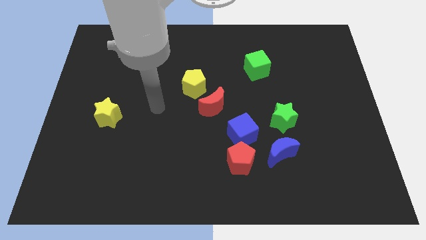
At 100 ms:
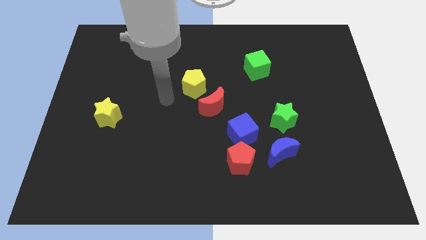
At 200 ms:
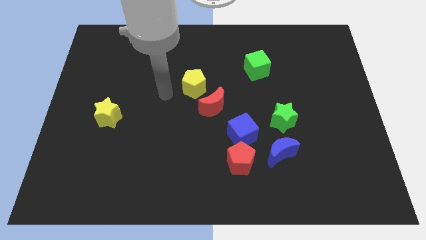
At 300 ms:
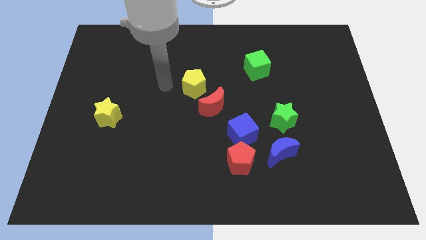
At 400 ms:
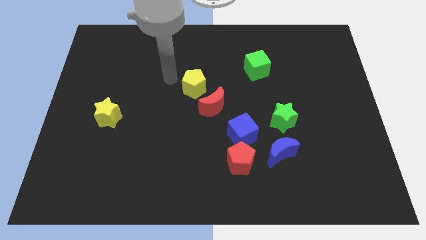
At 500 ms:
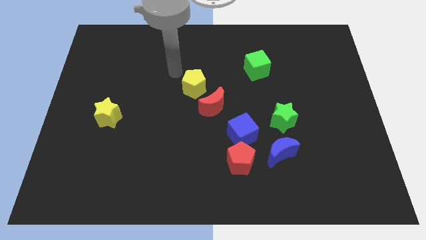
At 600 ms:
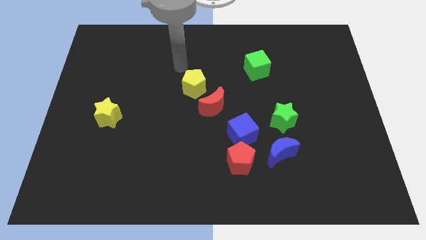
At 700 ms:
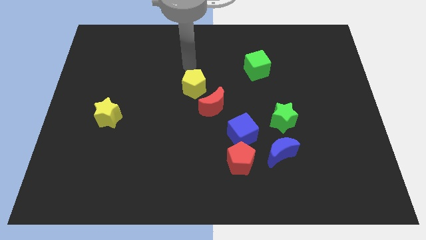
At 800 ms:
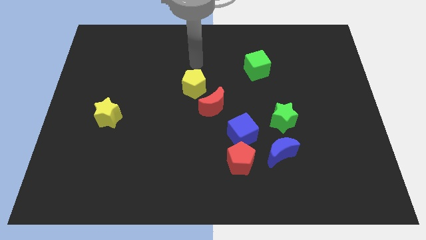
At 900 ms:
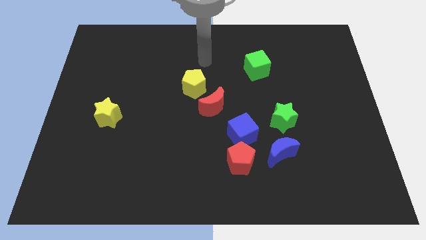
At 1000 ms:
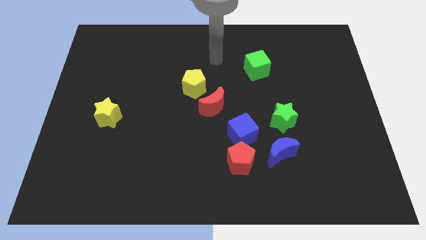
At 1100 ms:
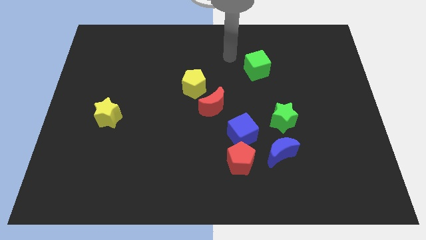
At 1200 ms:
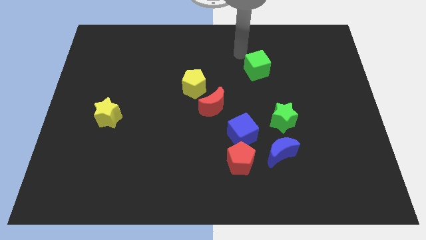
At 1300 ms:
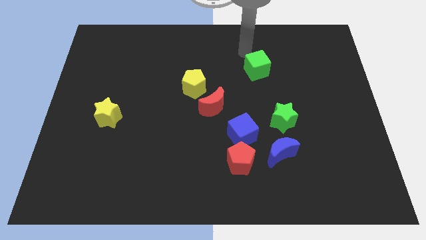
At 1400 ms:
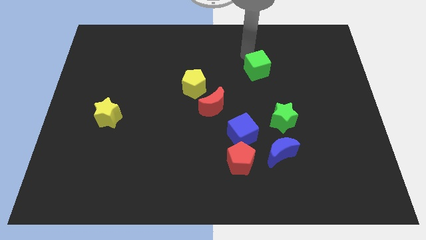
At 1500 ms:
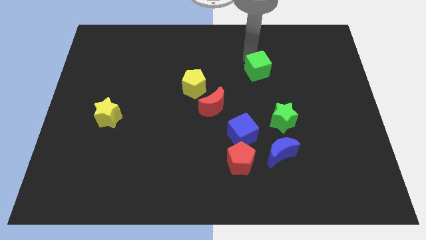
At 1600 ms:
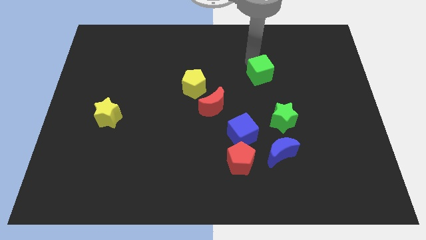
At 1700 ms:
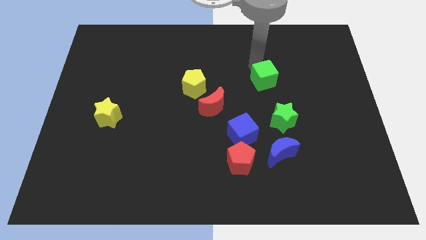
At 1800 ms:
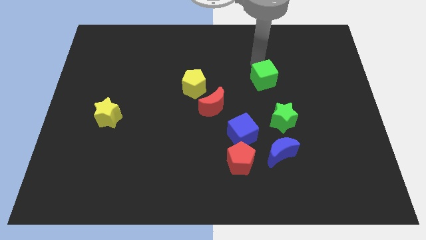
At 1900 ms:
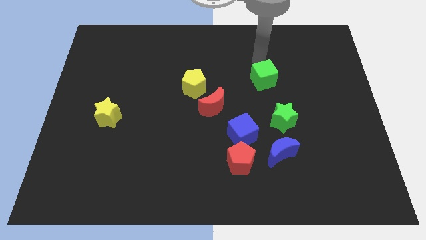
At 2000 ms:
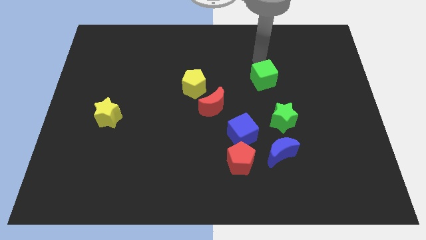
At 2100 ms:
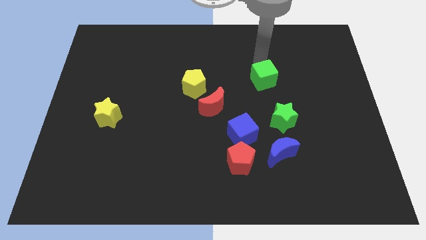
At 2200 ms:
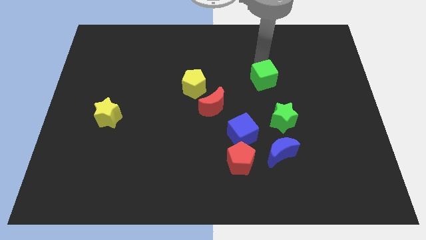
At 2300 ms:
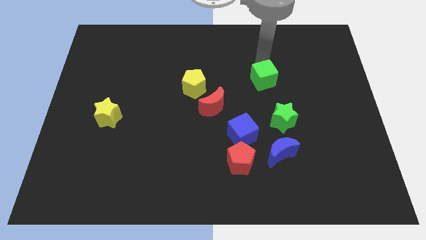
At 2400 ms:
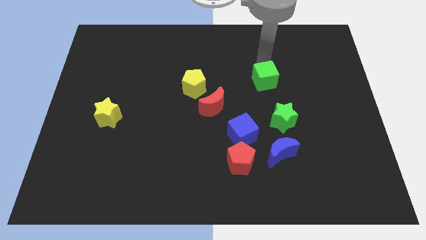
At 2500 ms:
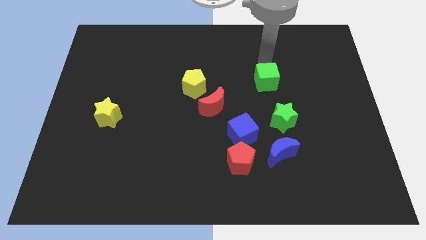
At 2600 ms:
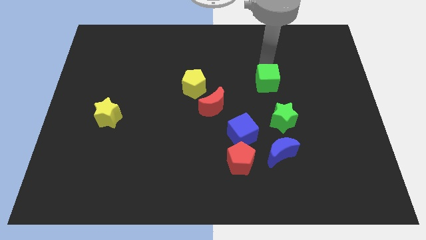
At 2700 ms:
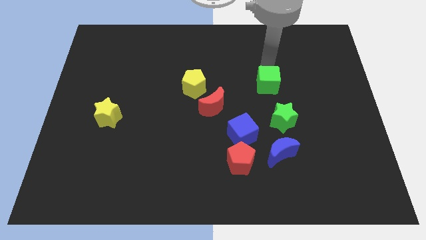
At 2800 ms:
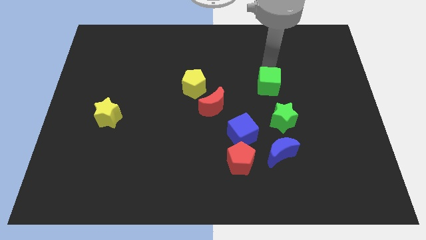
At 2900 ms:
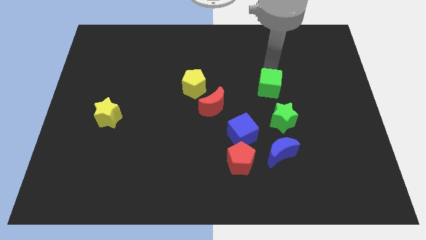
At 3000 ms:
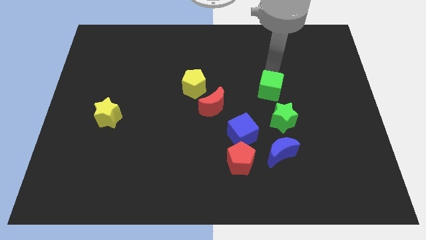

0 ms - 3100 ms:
move the green cube slightly down

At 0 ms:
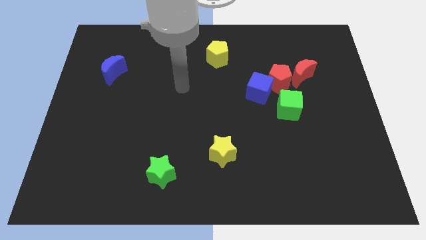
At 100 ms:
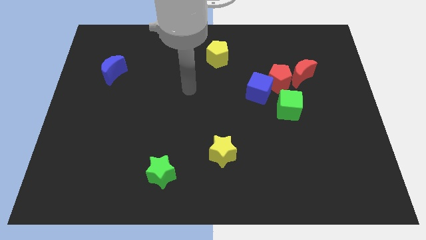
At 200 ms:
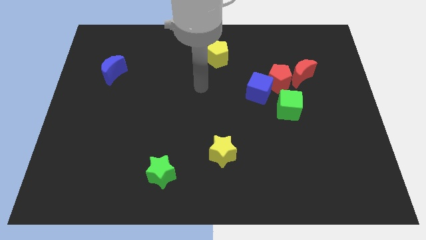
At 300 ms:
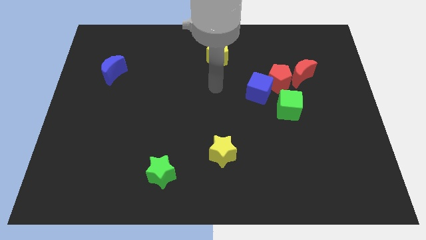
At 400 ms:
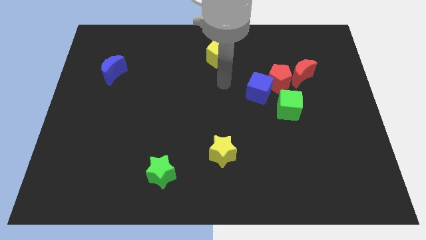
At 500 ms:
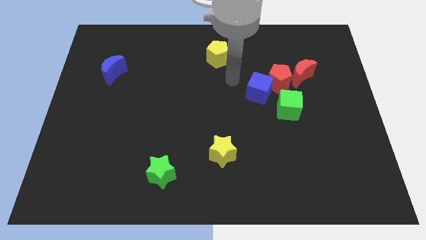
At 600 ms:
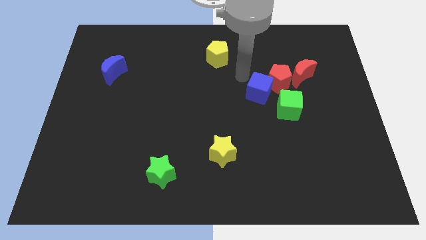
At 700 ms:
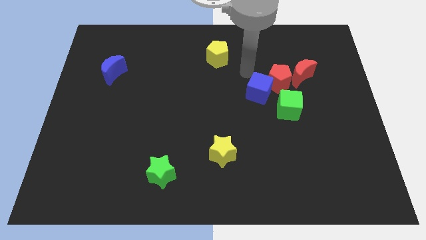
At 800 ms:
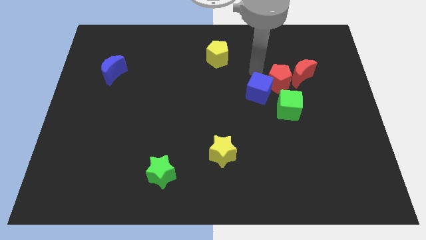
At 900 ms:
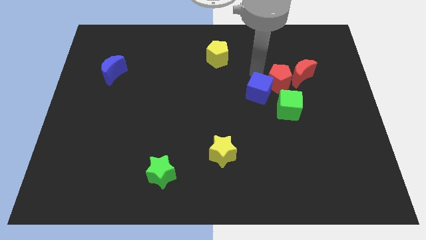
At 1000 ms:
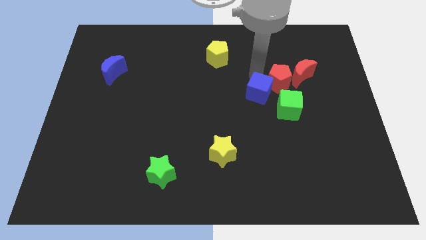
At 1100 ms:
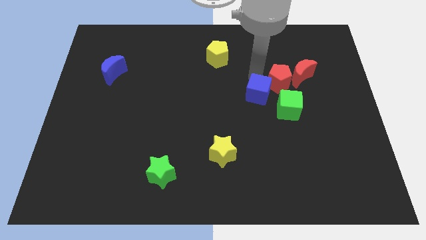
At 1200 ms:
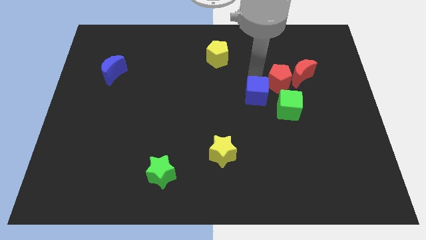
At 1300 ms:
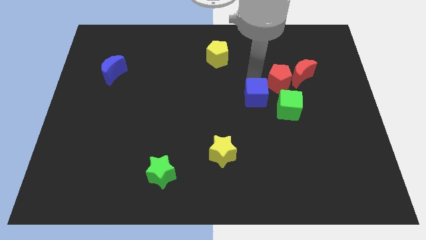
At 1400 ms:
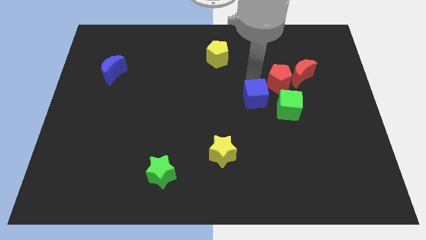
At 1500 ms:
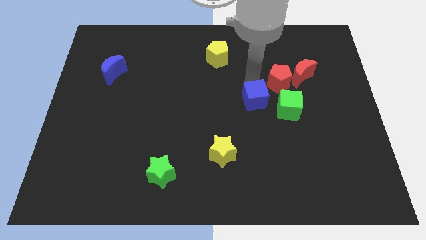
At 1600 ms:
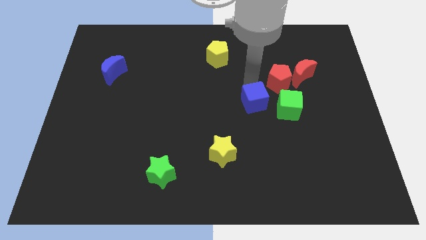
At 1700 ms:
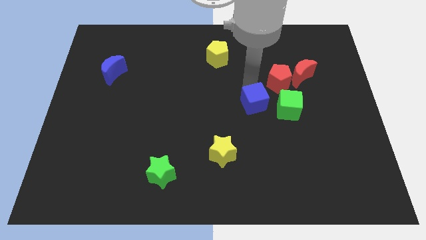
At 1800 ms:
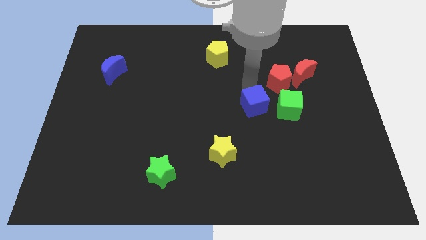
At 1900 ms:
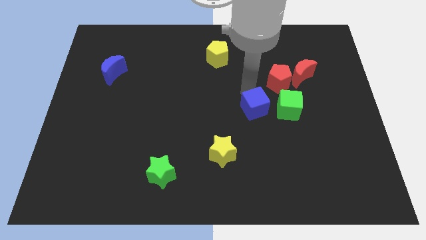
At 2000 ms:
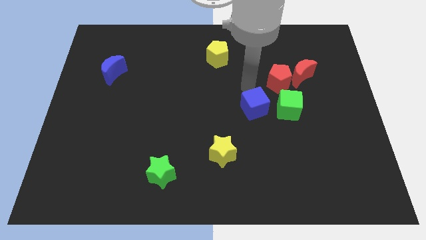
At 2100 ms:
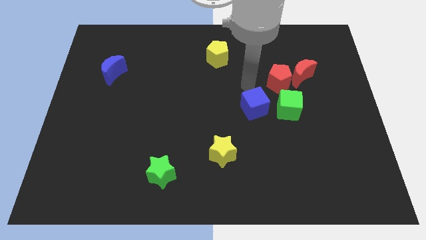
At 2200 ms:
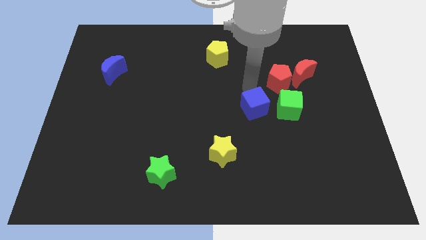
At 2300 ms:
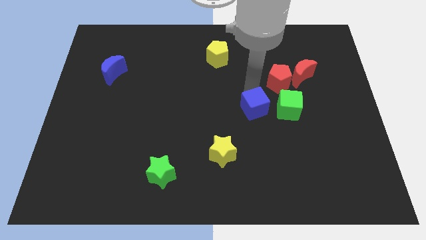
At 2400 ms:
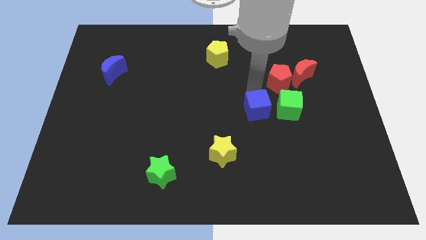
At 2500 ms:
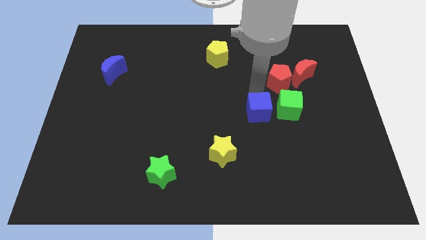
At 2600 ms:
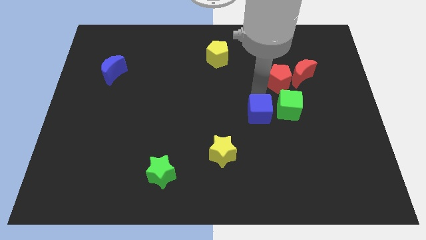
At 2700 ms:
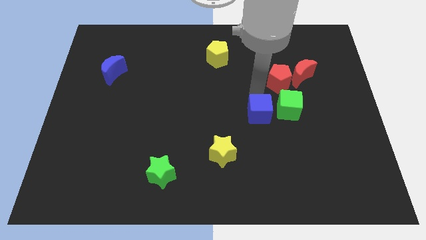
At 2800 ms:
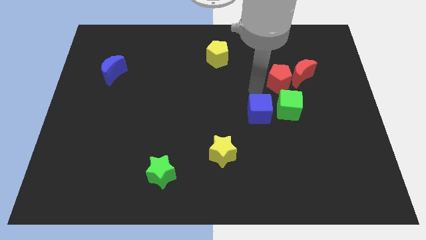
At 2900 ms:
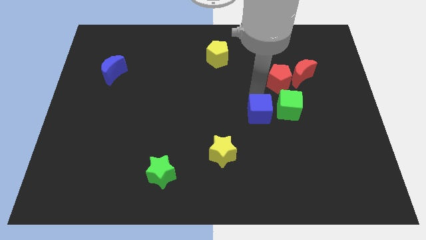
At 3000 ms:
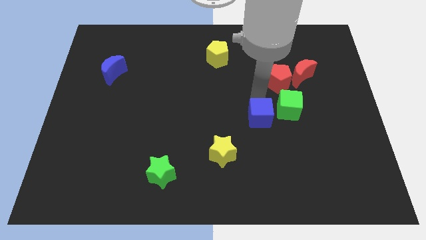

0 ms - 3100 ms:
push the blue cube a little down

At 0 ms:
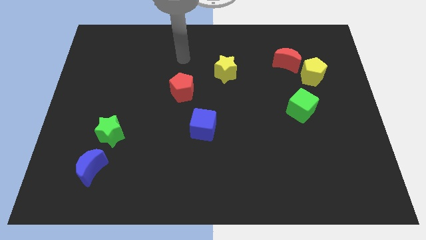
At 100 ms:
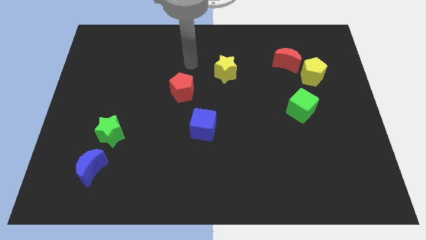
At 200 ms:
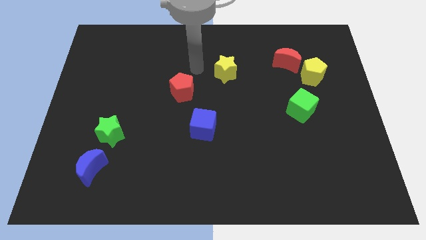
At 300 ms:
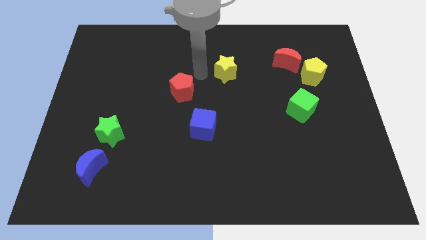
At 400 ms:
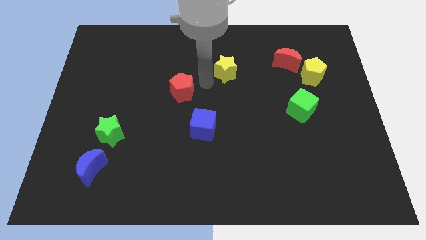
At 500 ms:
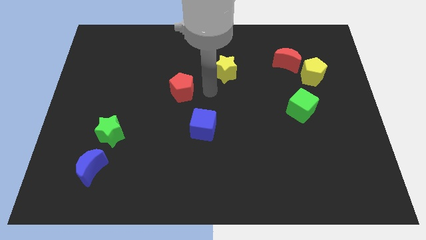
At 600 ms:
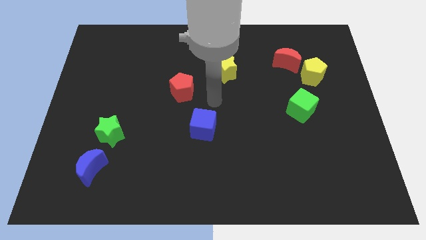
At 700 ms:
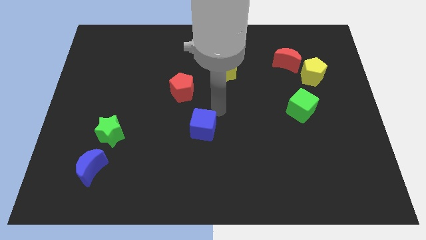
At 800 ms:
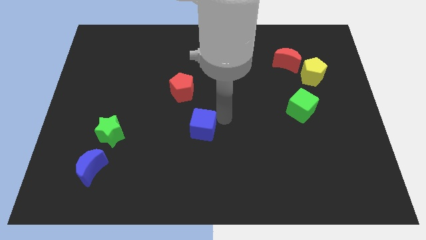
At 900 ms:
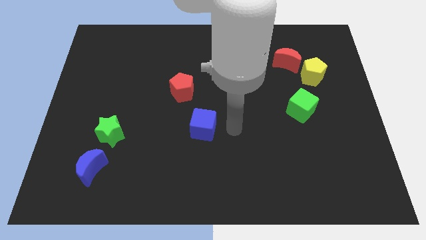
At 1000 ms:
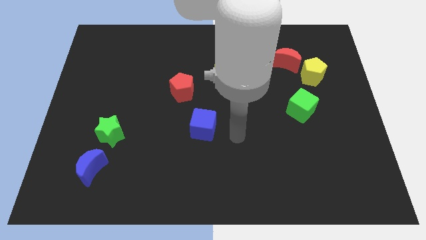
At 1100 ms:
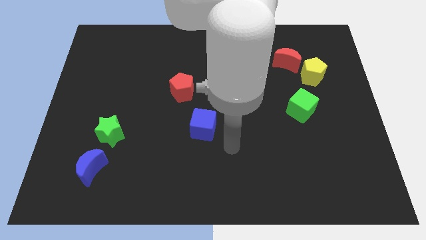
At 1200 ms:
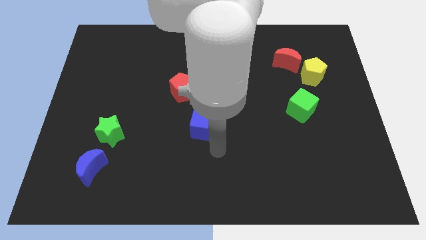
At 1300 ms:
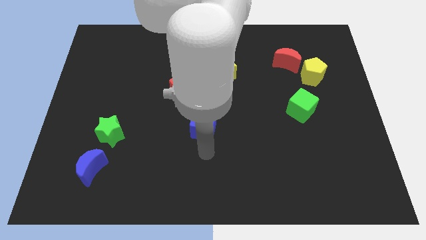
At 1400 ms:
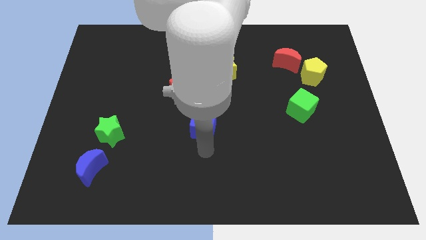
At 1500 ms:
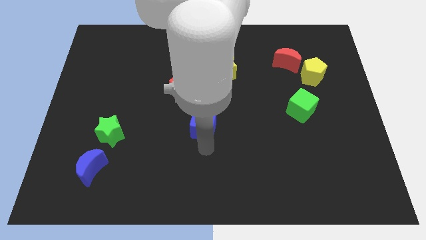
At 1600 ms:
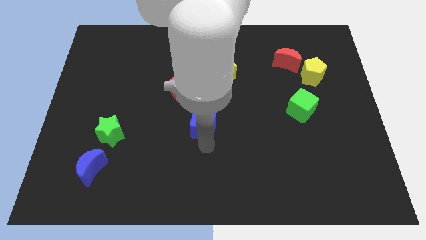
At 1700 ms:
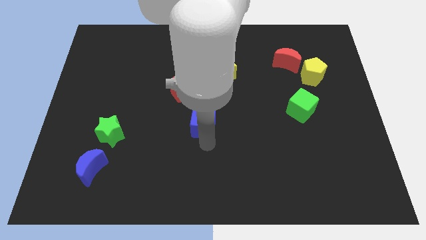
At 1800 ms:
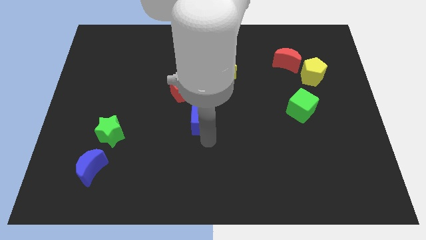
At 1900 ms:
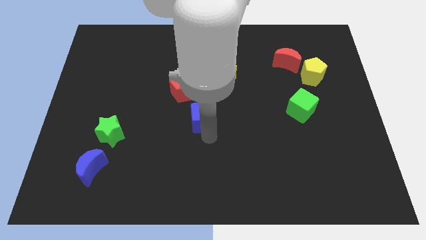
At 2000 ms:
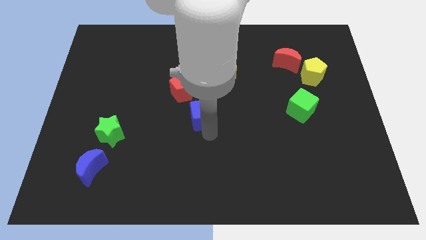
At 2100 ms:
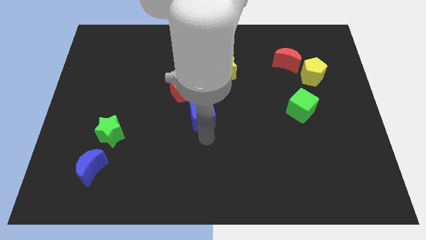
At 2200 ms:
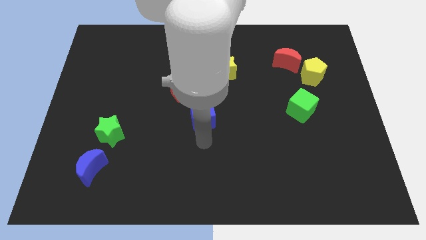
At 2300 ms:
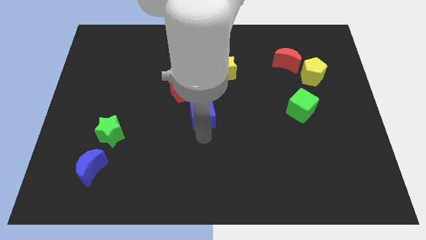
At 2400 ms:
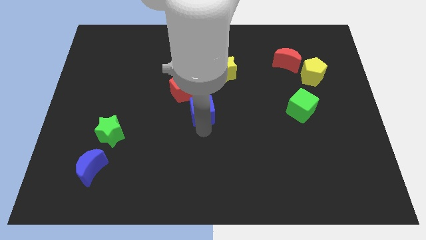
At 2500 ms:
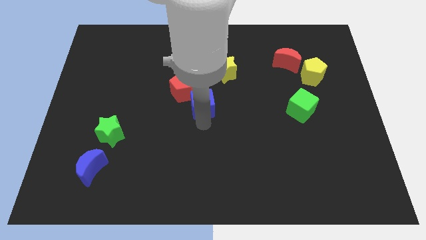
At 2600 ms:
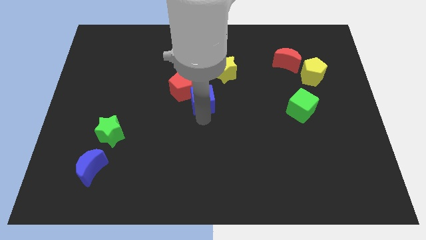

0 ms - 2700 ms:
slightly move the blue cube up
